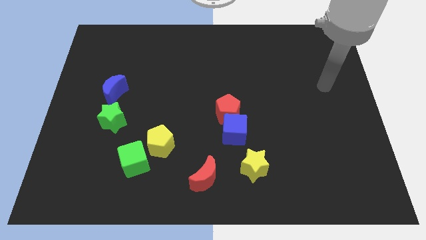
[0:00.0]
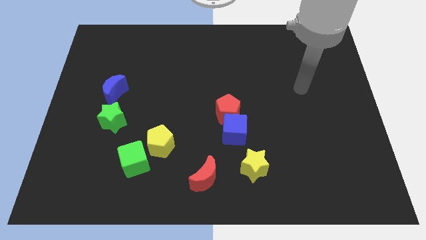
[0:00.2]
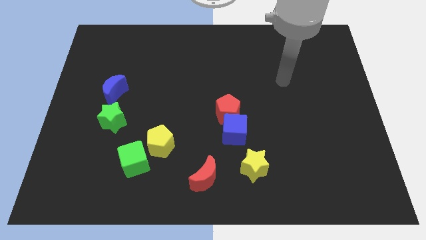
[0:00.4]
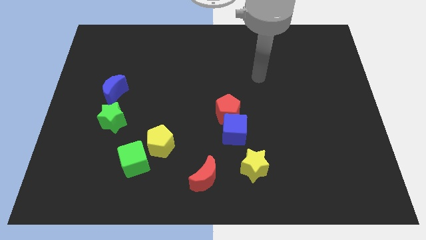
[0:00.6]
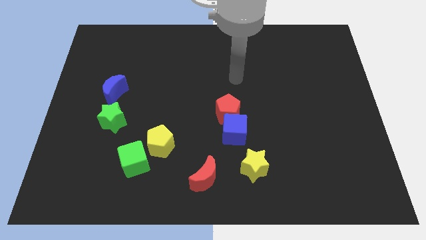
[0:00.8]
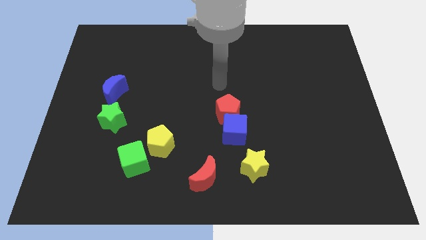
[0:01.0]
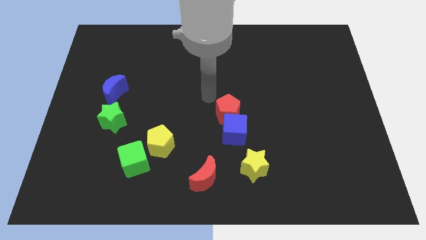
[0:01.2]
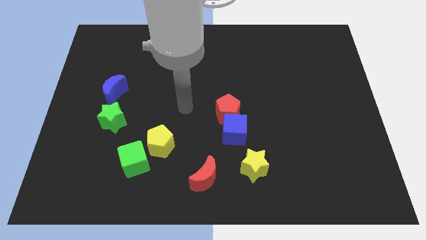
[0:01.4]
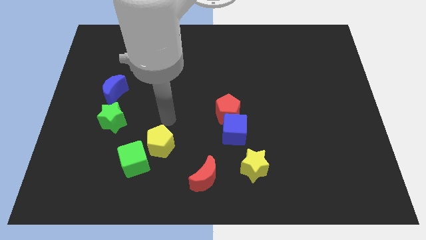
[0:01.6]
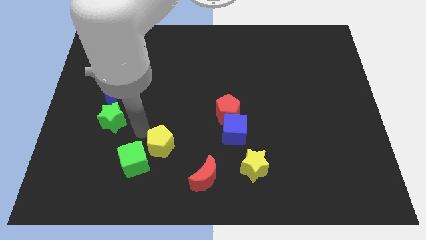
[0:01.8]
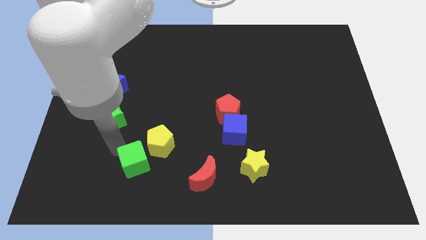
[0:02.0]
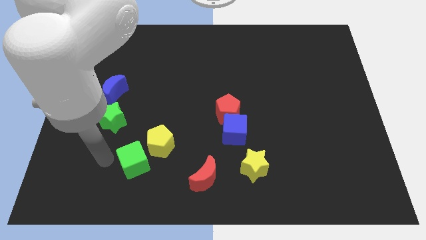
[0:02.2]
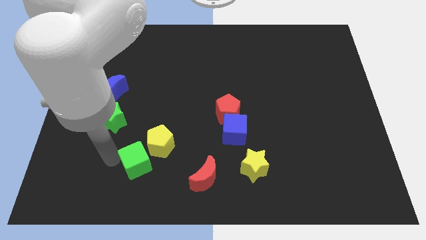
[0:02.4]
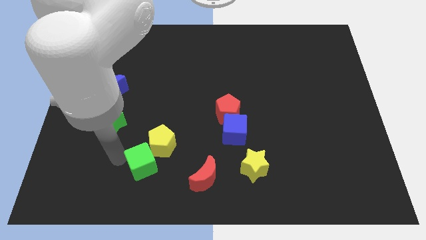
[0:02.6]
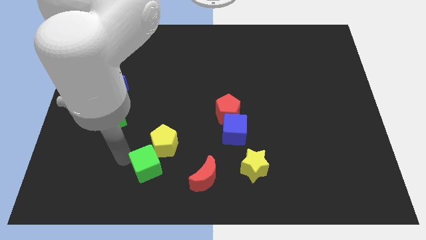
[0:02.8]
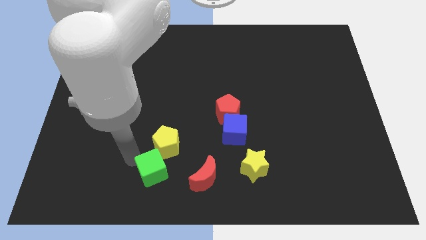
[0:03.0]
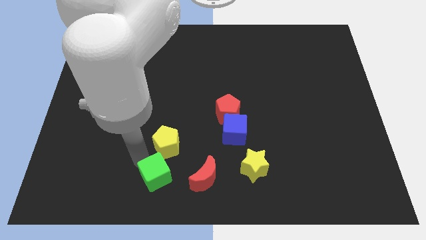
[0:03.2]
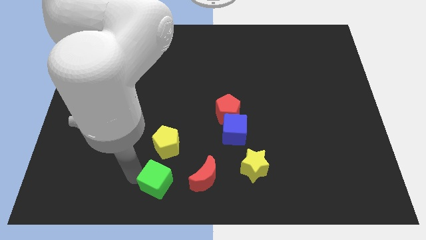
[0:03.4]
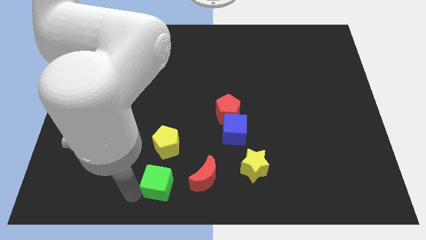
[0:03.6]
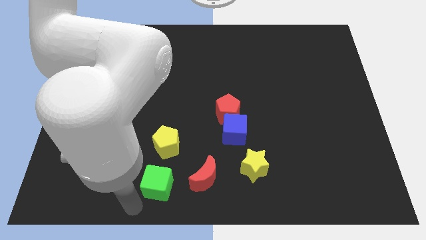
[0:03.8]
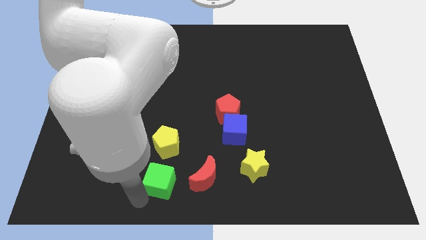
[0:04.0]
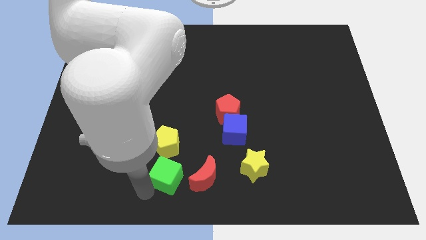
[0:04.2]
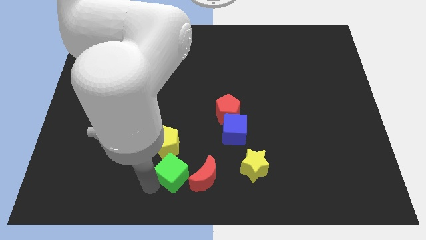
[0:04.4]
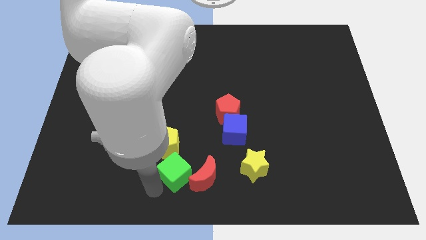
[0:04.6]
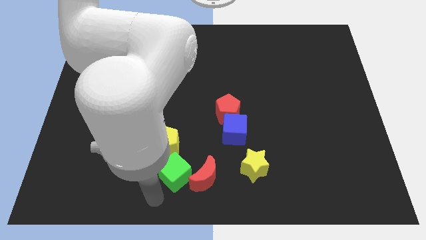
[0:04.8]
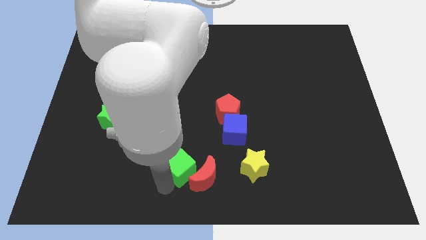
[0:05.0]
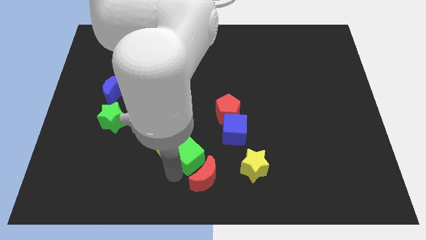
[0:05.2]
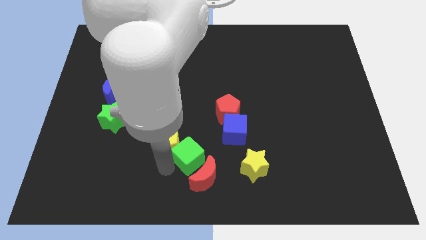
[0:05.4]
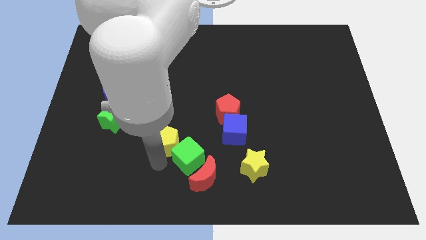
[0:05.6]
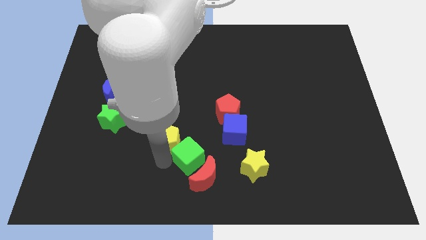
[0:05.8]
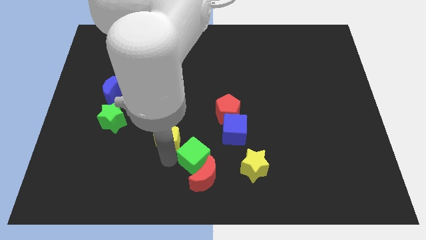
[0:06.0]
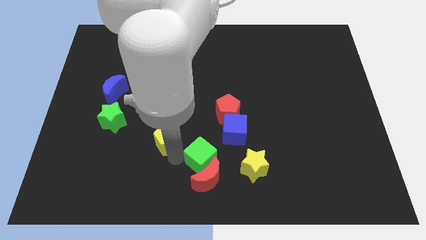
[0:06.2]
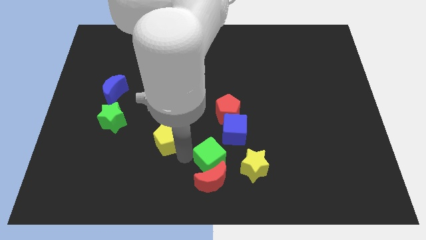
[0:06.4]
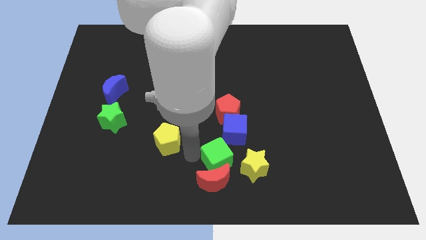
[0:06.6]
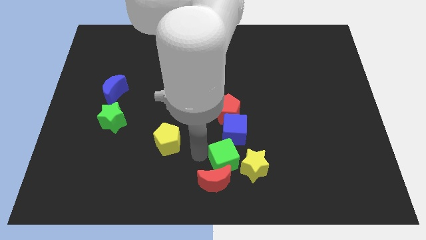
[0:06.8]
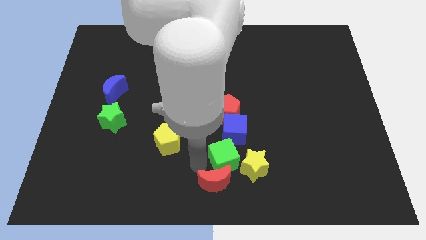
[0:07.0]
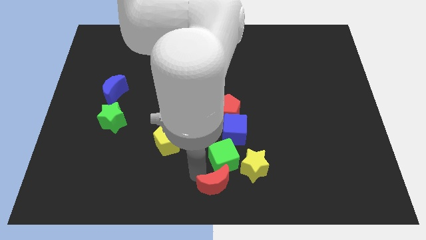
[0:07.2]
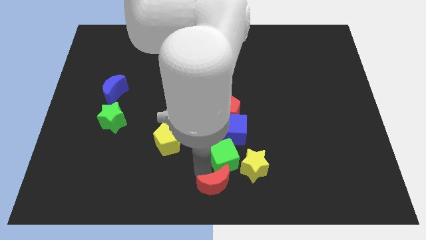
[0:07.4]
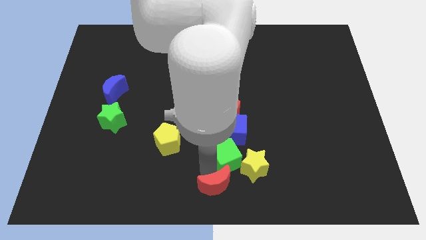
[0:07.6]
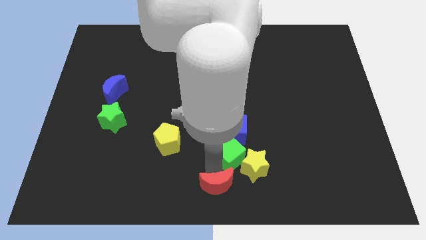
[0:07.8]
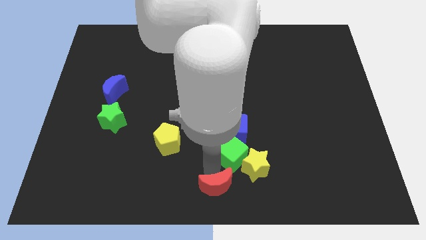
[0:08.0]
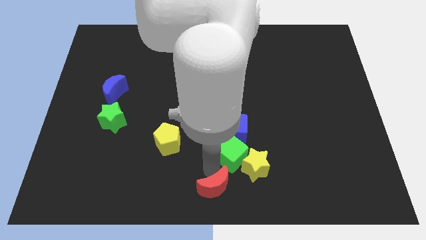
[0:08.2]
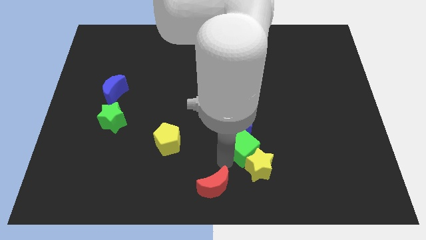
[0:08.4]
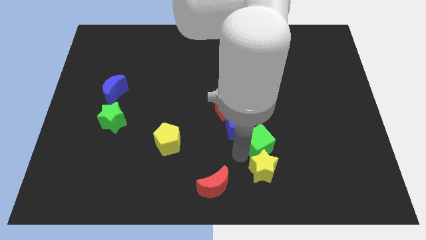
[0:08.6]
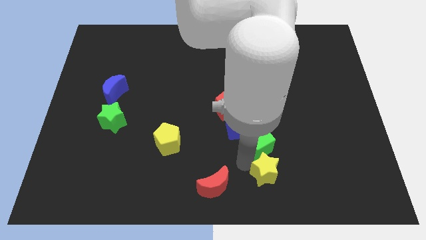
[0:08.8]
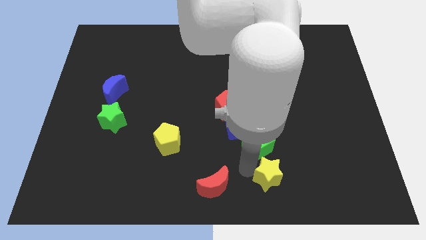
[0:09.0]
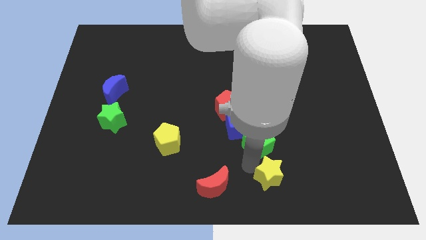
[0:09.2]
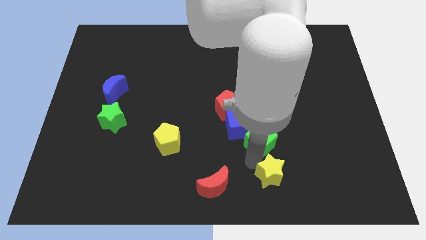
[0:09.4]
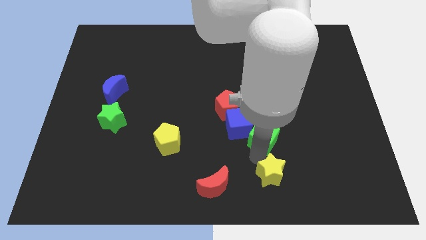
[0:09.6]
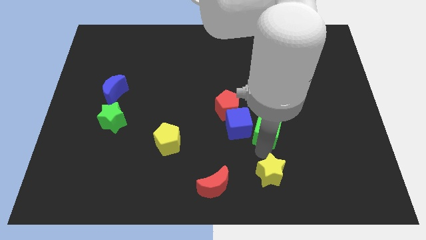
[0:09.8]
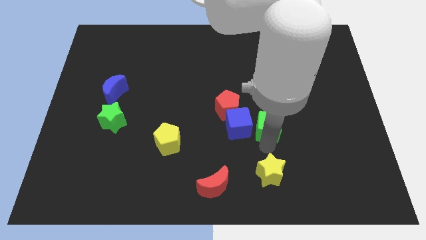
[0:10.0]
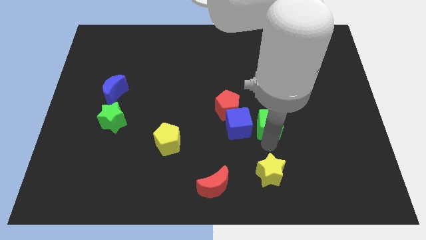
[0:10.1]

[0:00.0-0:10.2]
push the green cube to the top right of the blue cube

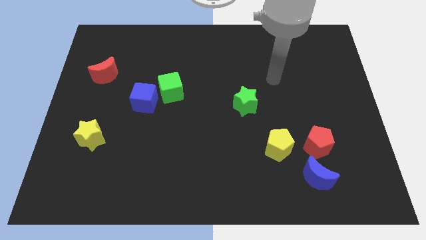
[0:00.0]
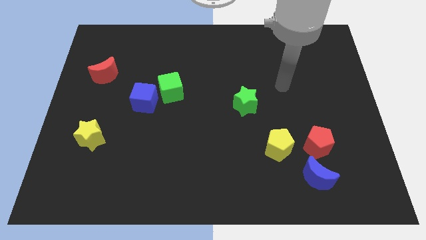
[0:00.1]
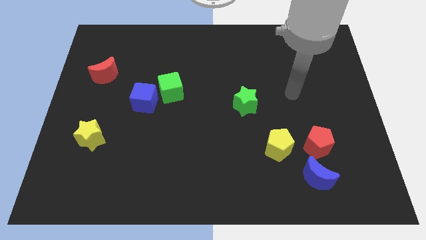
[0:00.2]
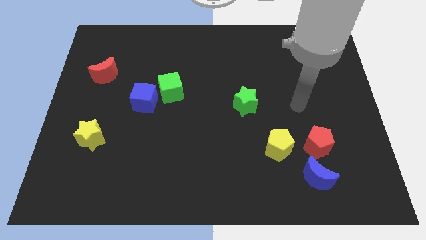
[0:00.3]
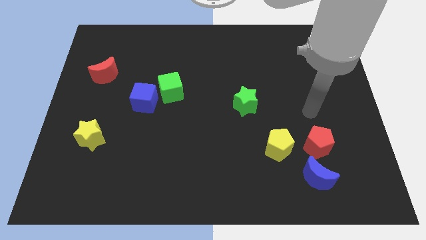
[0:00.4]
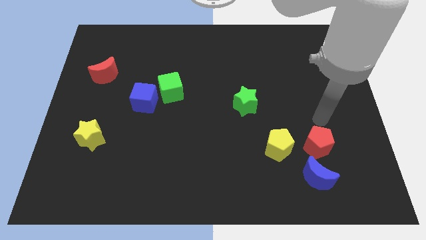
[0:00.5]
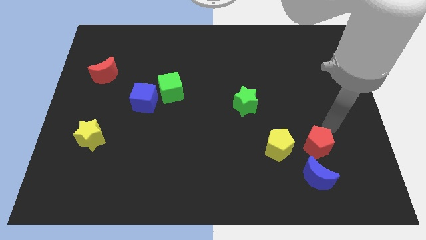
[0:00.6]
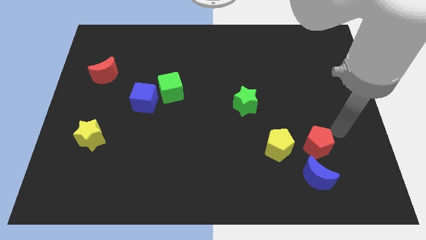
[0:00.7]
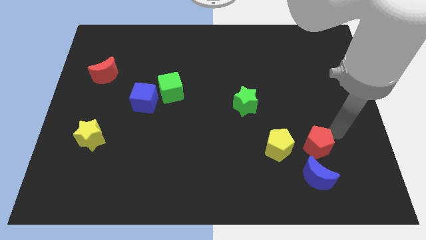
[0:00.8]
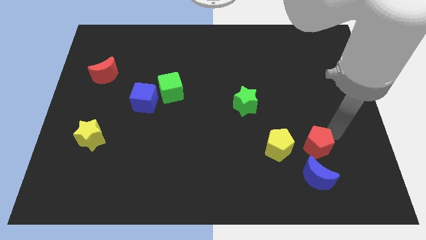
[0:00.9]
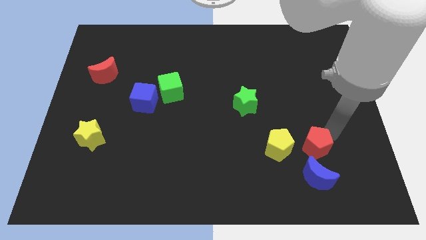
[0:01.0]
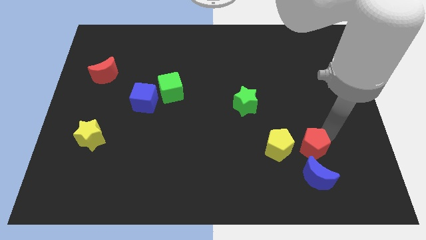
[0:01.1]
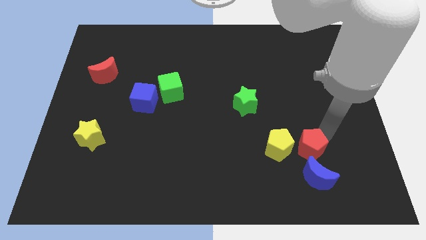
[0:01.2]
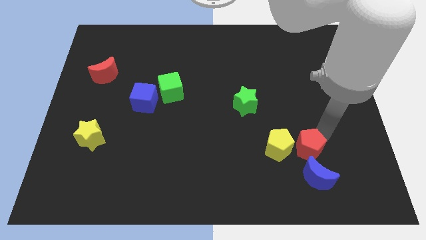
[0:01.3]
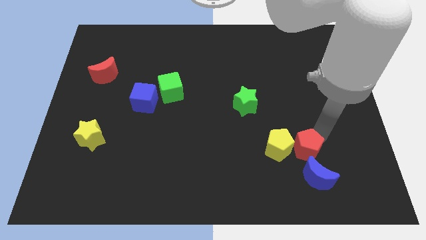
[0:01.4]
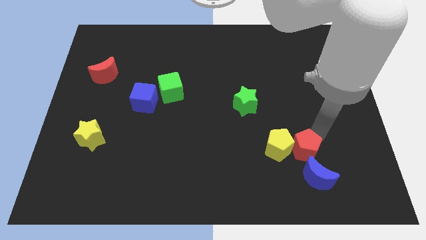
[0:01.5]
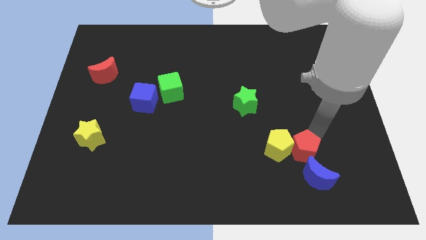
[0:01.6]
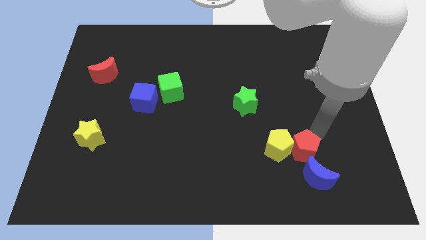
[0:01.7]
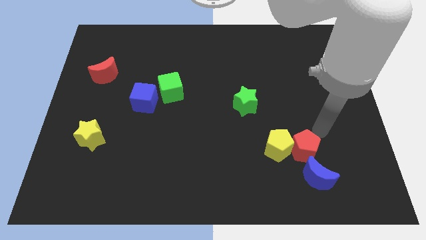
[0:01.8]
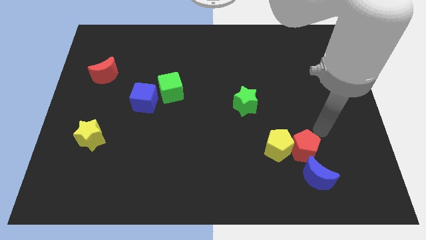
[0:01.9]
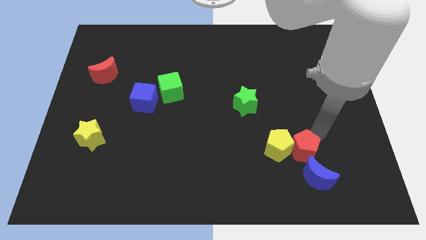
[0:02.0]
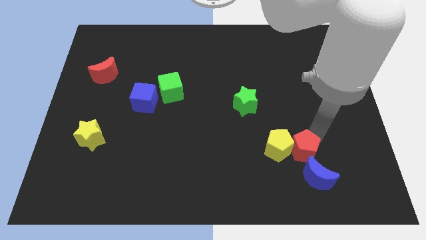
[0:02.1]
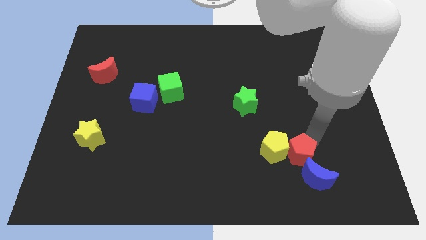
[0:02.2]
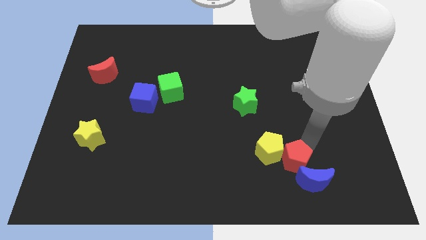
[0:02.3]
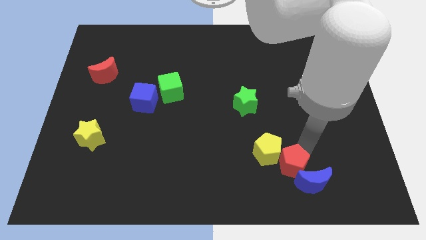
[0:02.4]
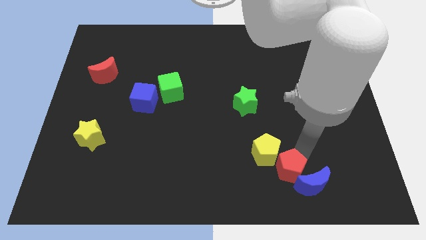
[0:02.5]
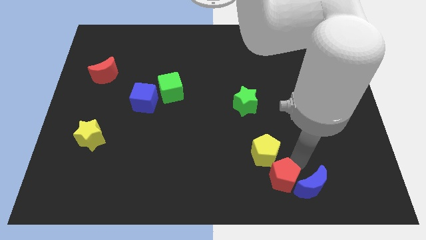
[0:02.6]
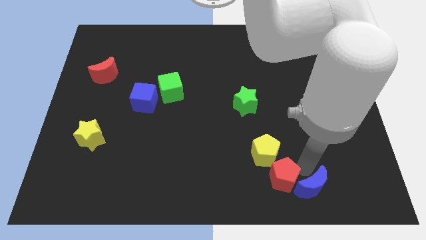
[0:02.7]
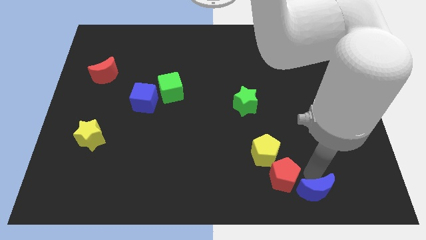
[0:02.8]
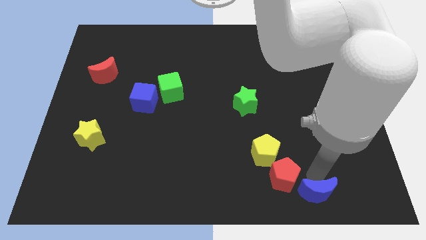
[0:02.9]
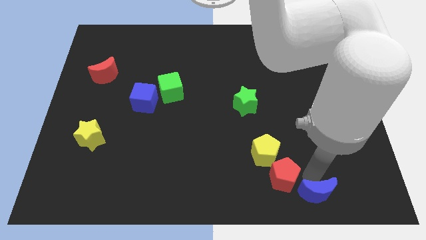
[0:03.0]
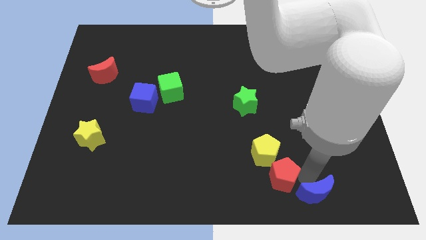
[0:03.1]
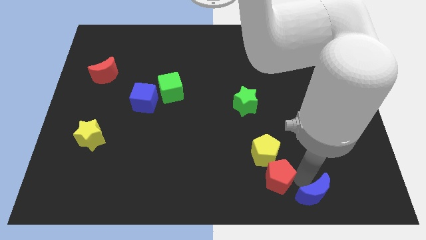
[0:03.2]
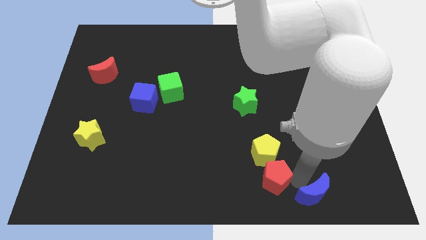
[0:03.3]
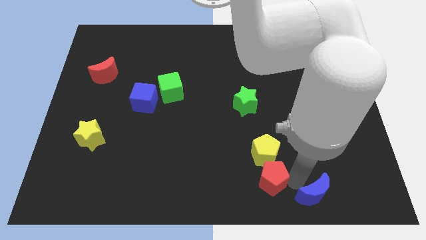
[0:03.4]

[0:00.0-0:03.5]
slide the red pentagon diagonally down and to the left of the yellow pentagon
